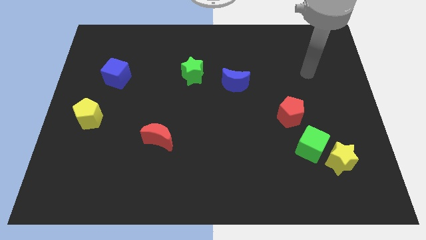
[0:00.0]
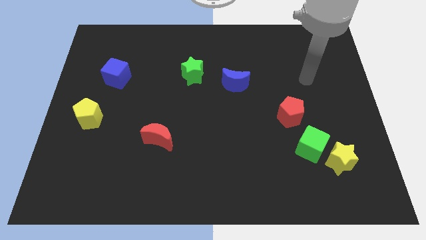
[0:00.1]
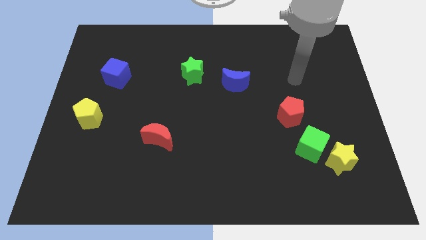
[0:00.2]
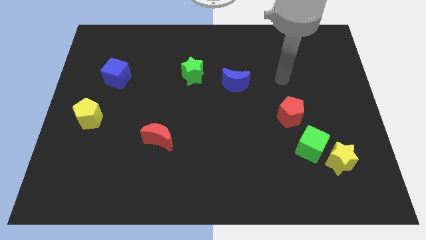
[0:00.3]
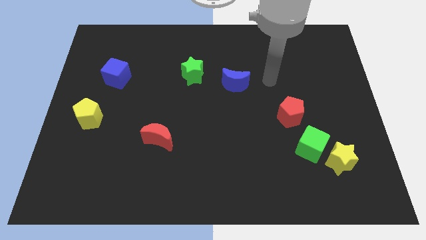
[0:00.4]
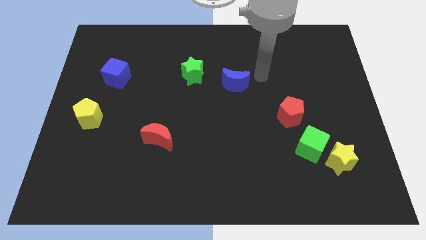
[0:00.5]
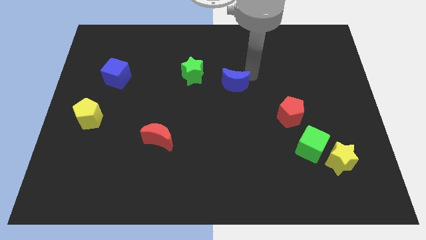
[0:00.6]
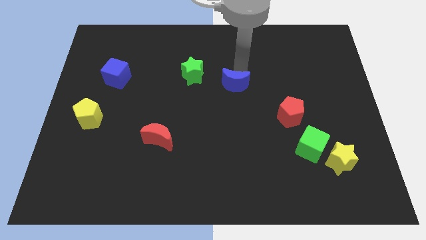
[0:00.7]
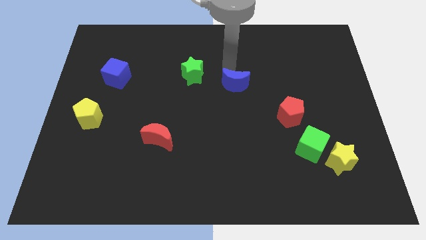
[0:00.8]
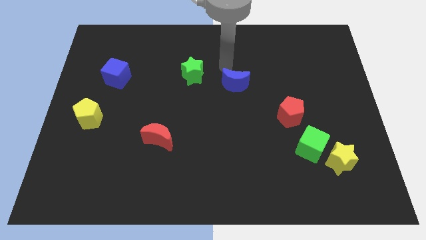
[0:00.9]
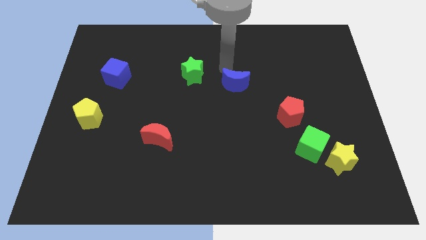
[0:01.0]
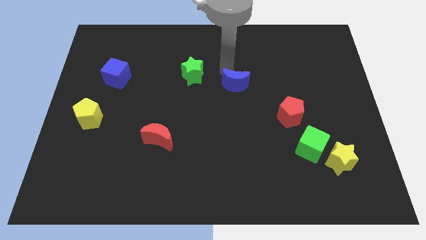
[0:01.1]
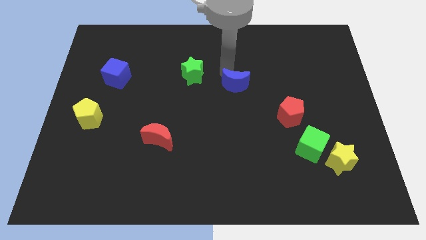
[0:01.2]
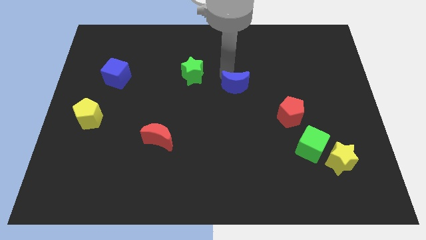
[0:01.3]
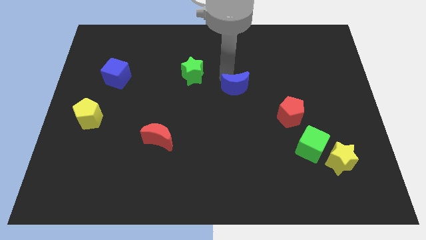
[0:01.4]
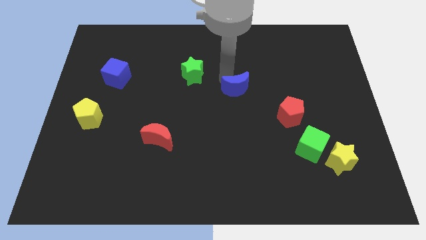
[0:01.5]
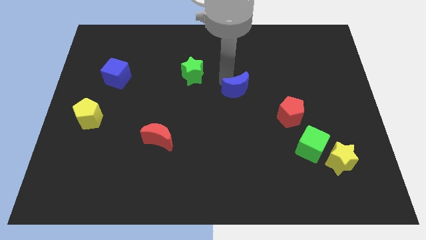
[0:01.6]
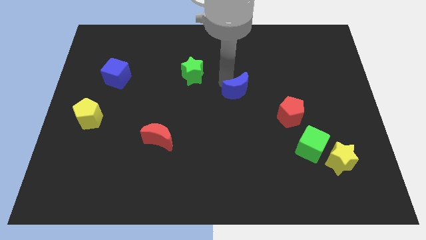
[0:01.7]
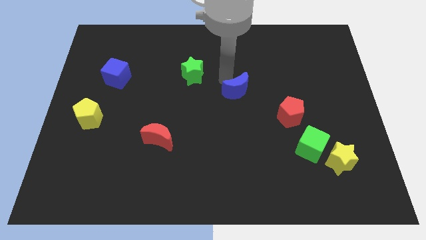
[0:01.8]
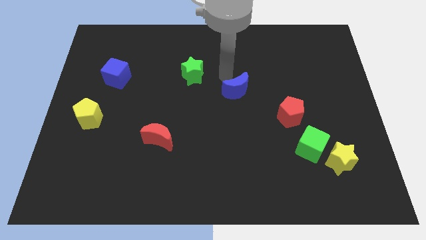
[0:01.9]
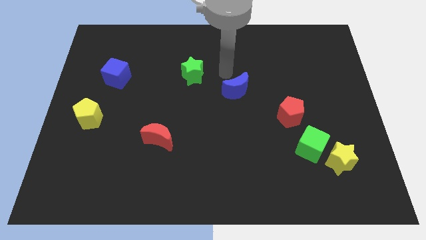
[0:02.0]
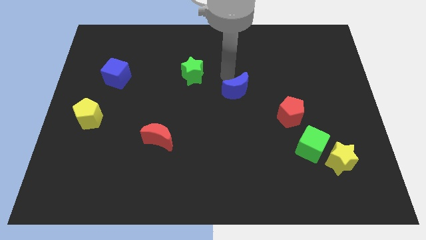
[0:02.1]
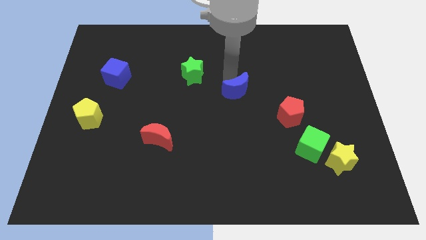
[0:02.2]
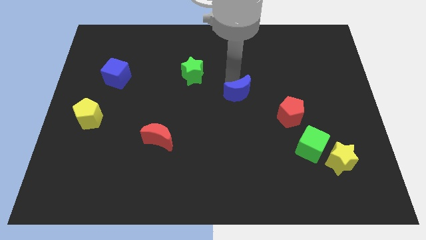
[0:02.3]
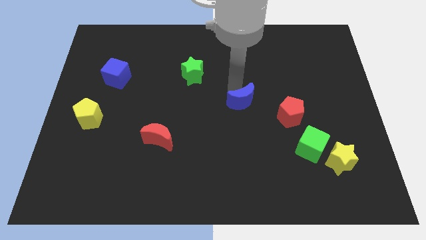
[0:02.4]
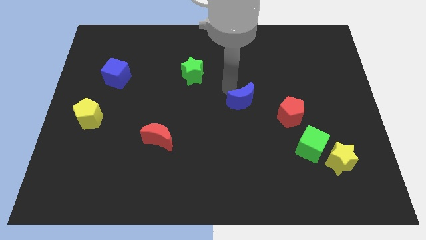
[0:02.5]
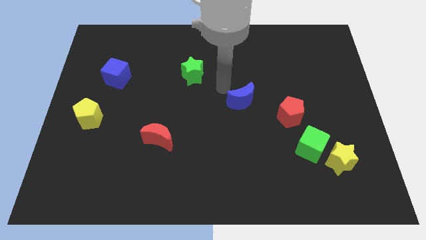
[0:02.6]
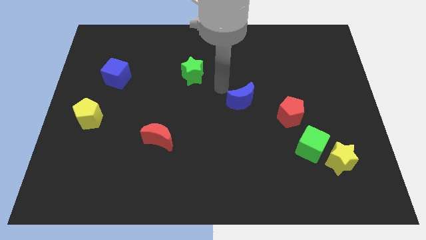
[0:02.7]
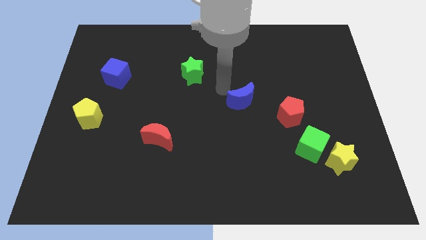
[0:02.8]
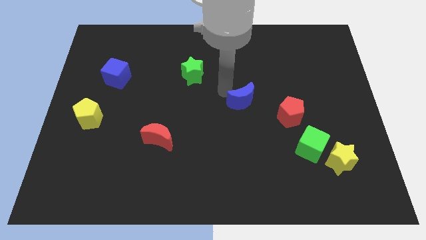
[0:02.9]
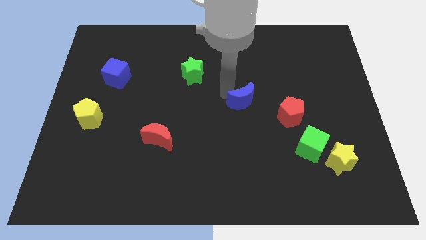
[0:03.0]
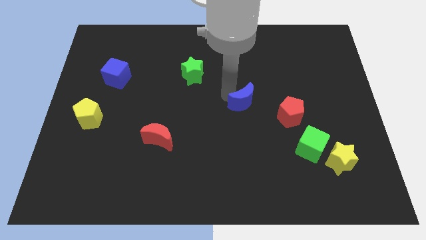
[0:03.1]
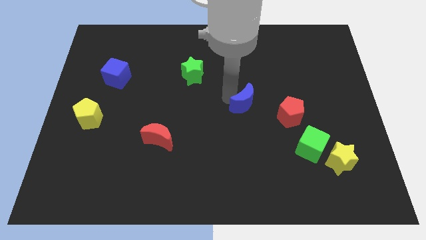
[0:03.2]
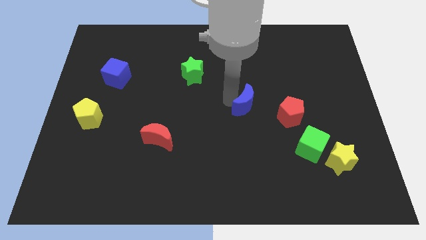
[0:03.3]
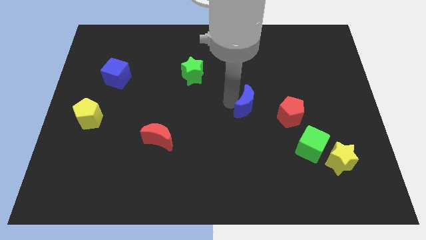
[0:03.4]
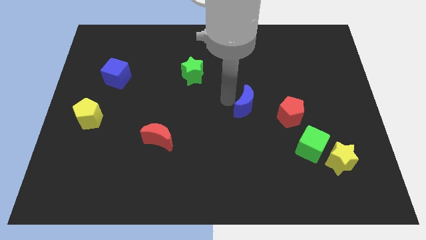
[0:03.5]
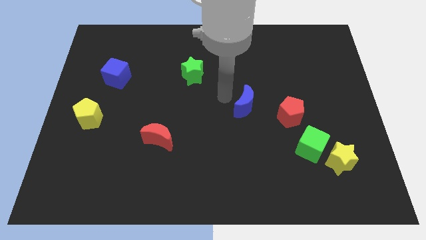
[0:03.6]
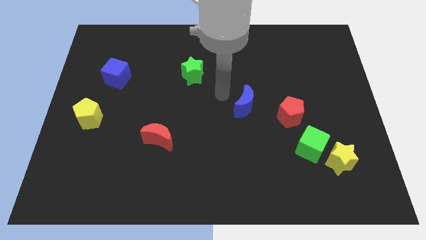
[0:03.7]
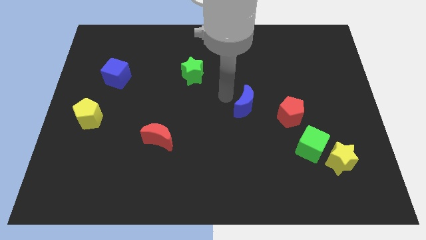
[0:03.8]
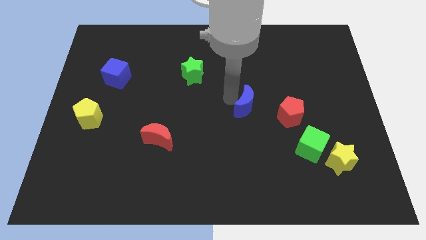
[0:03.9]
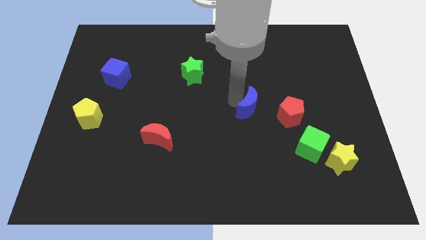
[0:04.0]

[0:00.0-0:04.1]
slightly move the blue moon down and then to the right

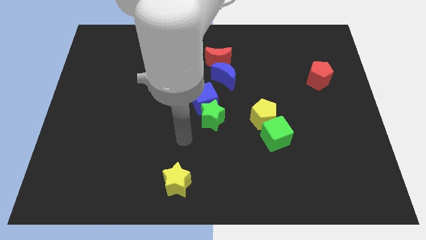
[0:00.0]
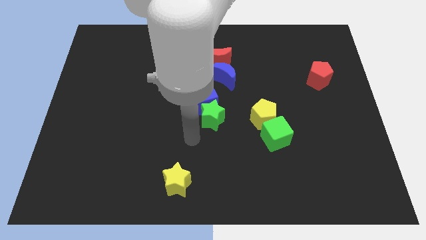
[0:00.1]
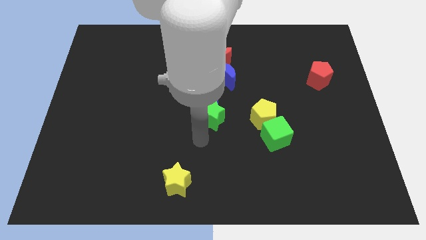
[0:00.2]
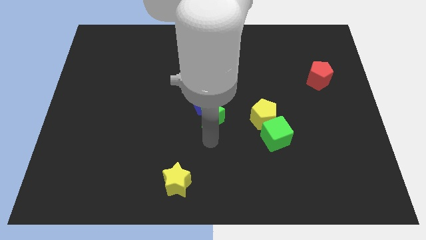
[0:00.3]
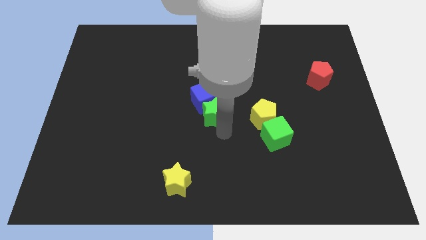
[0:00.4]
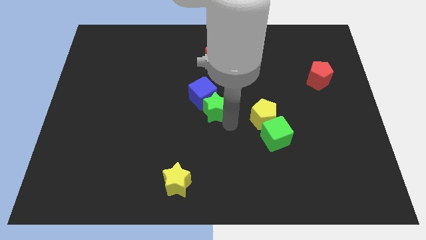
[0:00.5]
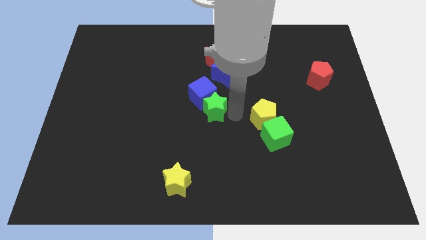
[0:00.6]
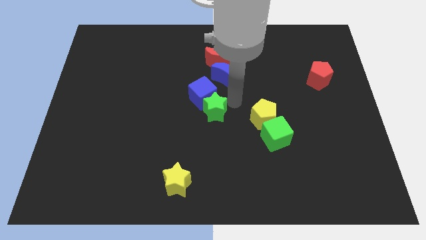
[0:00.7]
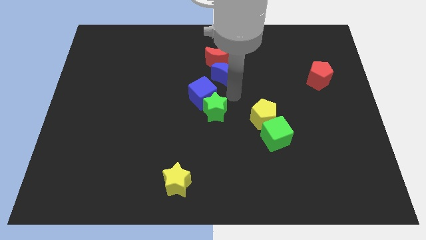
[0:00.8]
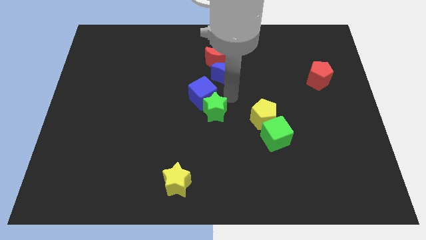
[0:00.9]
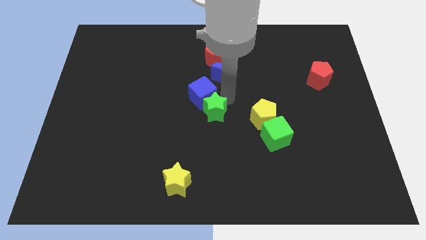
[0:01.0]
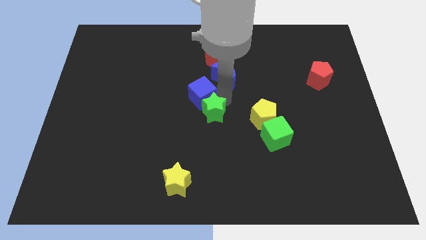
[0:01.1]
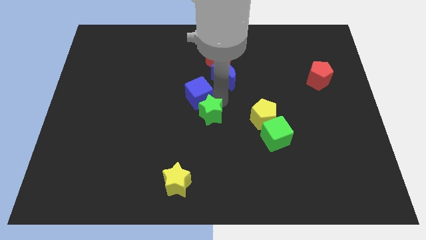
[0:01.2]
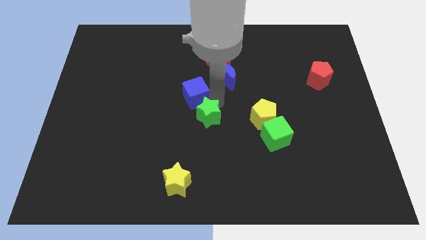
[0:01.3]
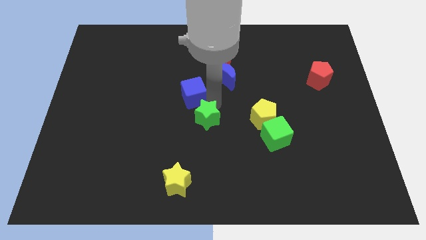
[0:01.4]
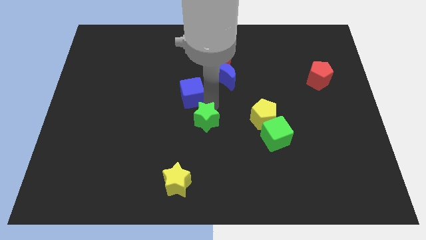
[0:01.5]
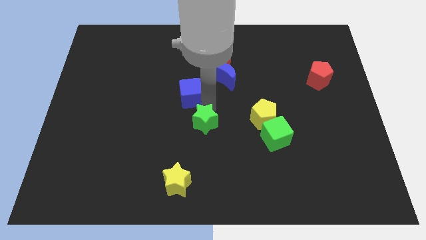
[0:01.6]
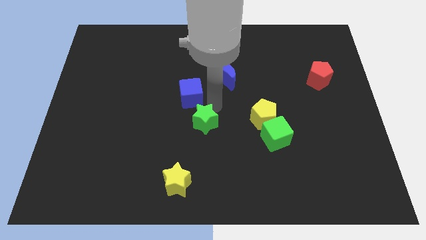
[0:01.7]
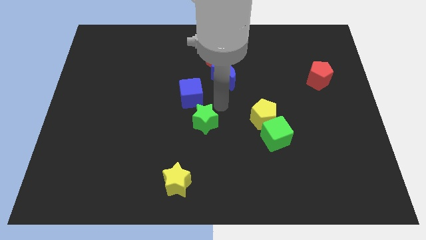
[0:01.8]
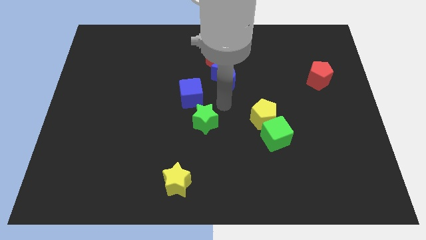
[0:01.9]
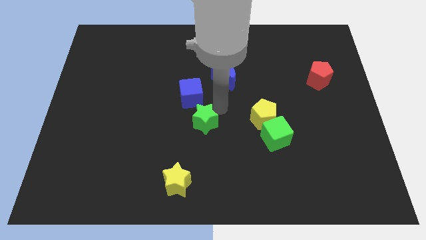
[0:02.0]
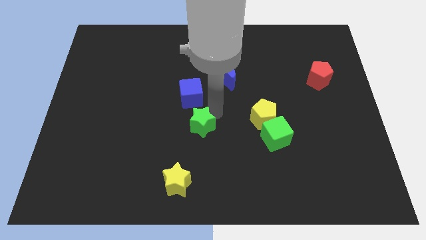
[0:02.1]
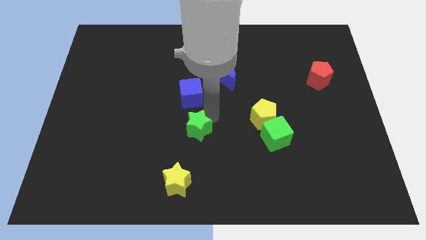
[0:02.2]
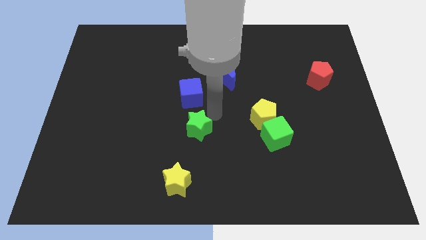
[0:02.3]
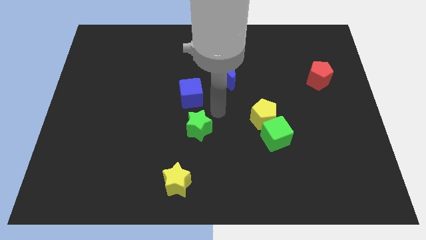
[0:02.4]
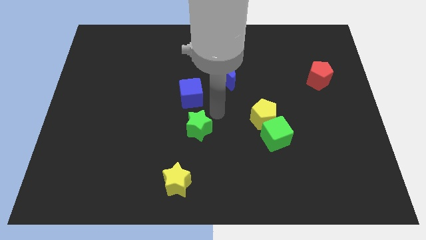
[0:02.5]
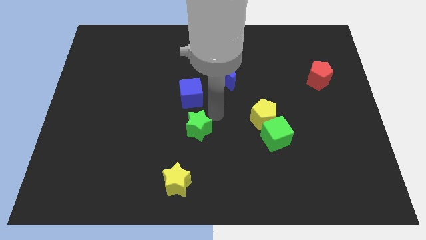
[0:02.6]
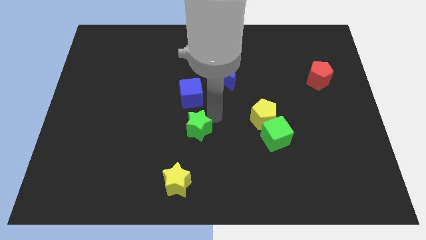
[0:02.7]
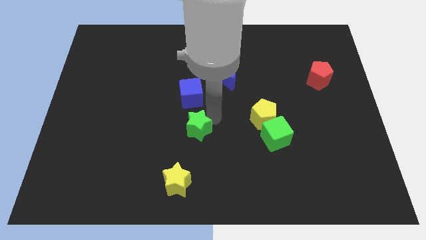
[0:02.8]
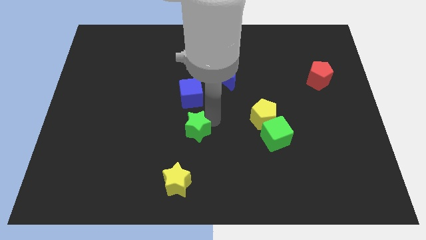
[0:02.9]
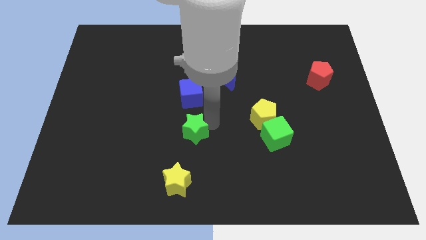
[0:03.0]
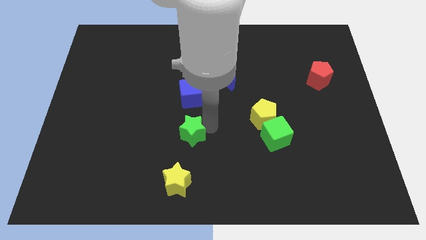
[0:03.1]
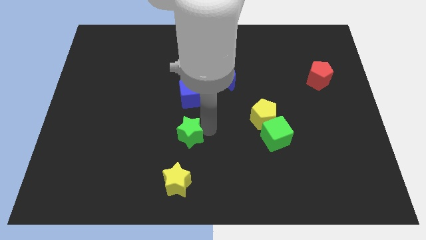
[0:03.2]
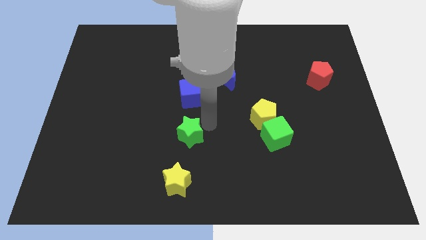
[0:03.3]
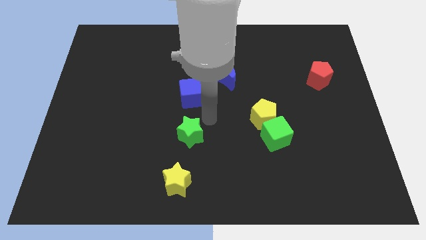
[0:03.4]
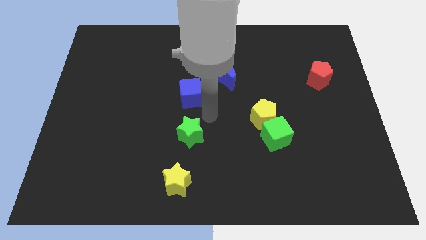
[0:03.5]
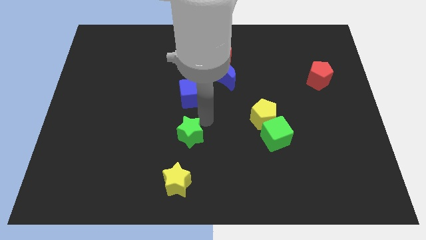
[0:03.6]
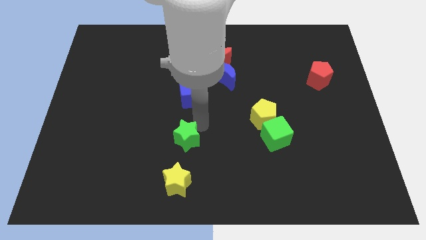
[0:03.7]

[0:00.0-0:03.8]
slide the green star somewhat diagonally downwards and to the left

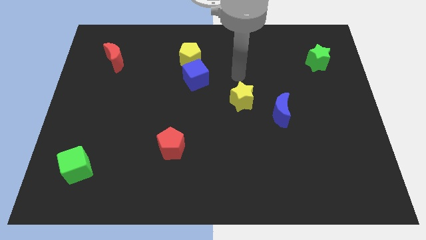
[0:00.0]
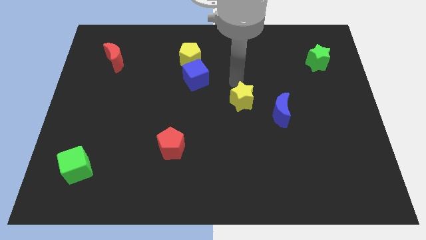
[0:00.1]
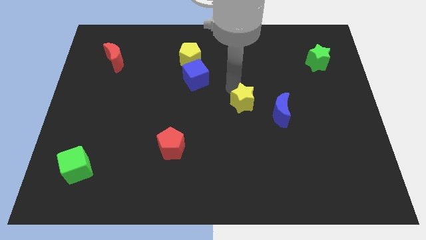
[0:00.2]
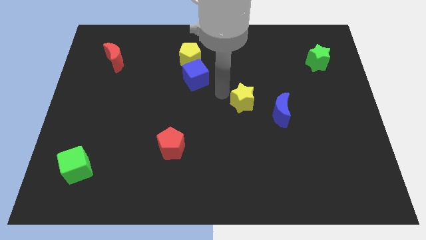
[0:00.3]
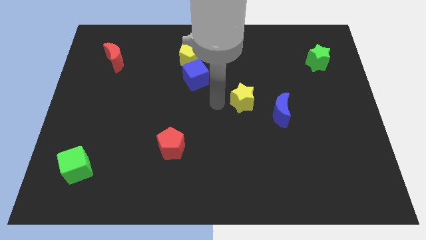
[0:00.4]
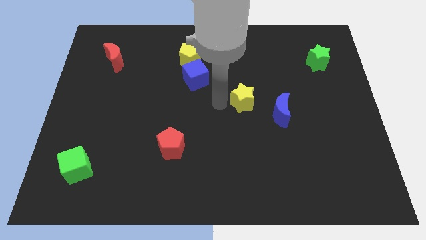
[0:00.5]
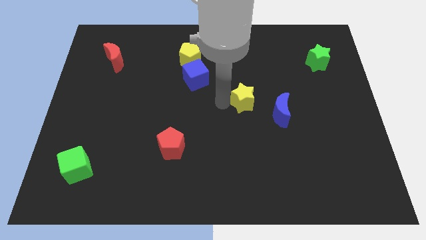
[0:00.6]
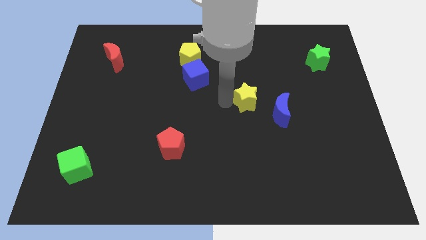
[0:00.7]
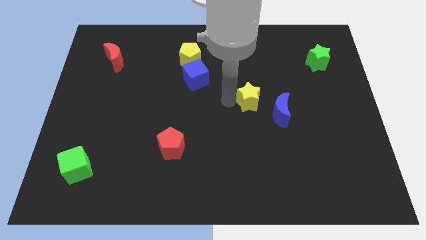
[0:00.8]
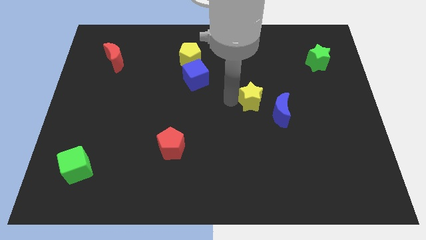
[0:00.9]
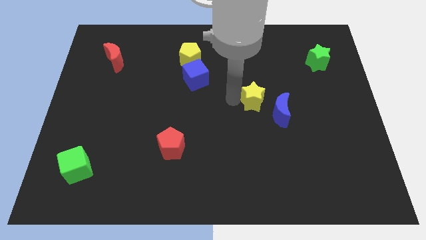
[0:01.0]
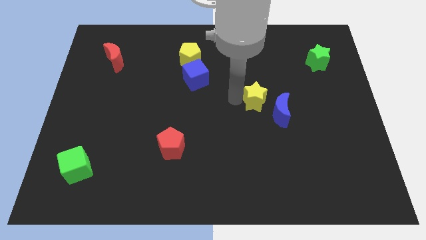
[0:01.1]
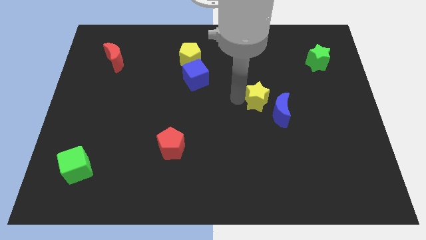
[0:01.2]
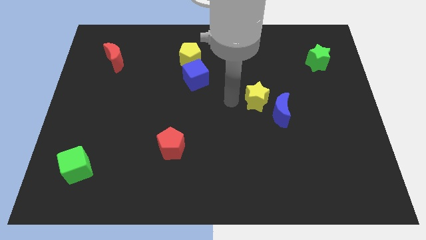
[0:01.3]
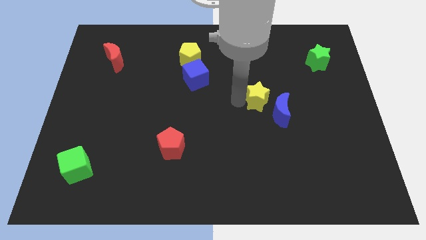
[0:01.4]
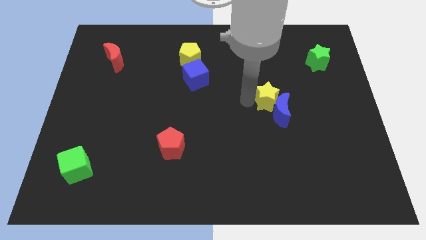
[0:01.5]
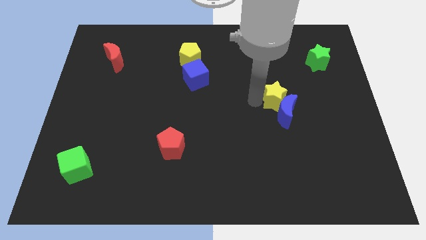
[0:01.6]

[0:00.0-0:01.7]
slightly push the yellow star to the right
